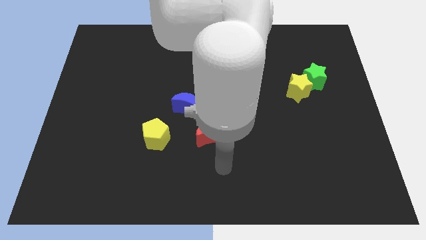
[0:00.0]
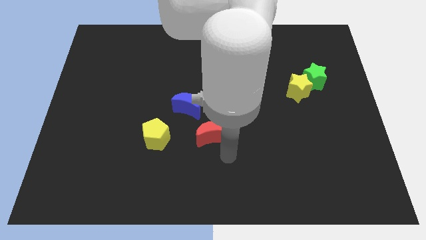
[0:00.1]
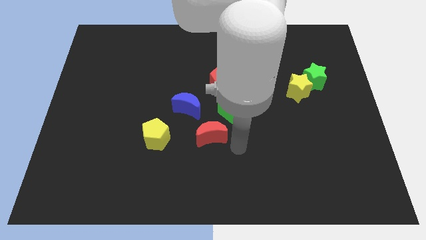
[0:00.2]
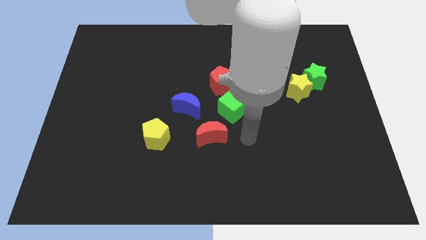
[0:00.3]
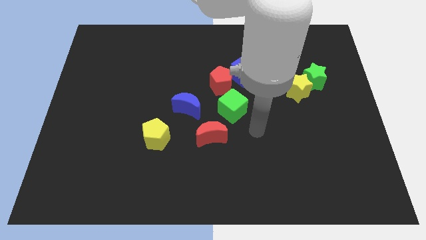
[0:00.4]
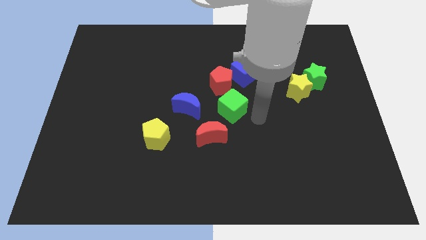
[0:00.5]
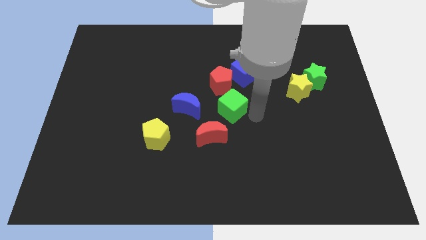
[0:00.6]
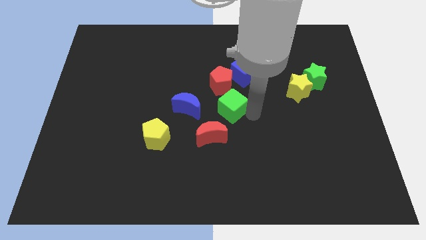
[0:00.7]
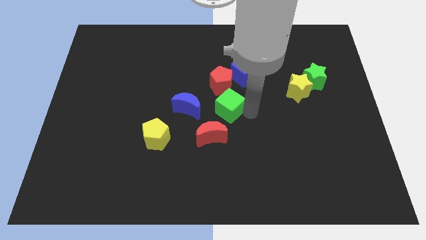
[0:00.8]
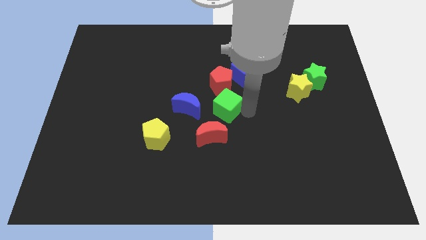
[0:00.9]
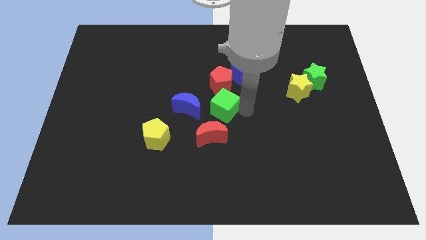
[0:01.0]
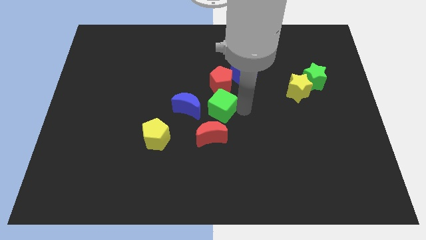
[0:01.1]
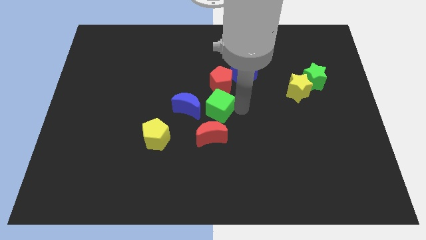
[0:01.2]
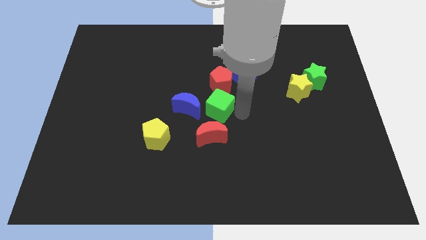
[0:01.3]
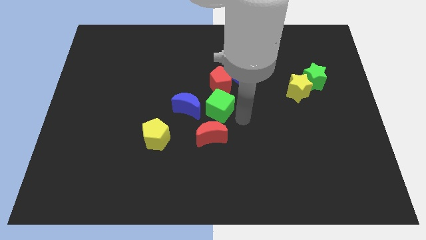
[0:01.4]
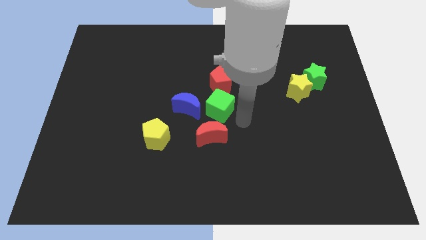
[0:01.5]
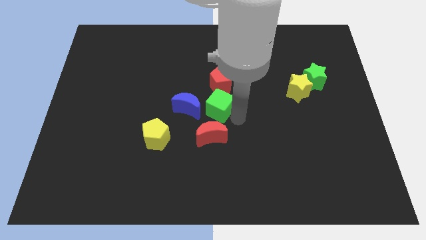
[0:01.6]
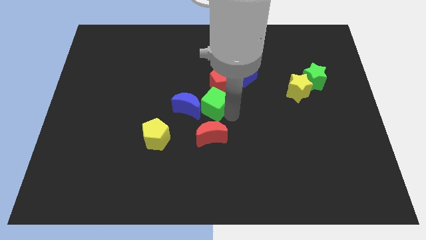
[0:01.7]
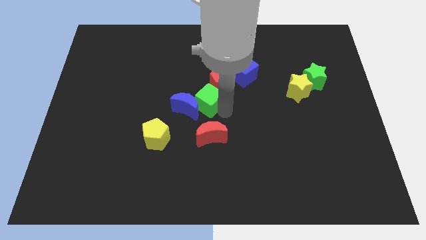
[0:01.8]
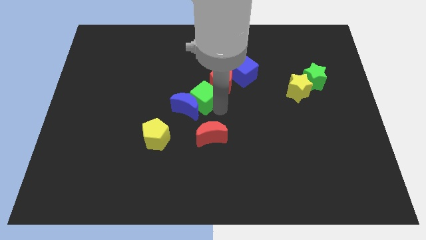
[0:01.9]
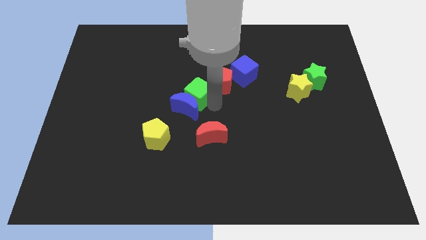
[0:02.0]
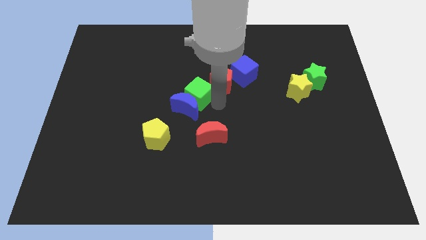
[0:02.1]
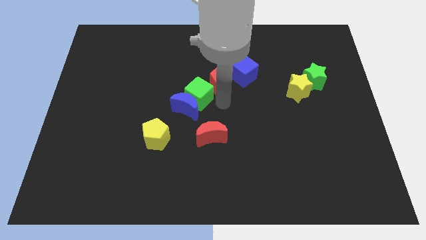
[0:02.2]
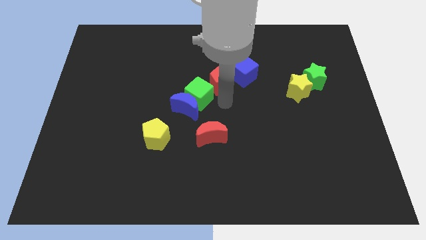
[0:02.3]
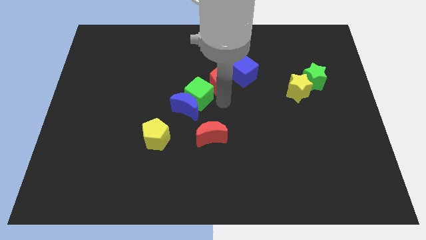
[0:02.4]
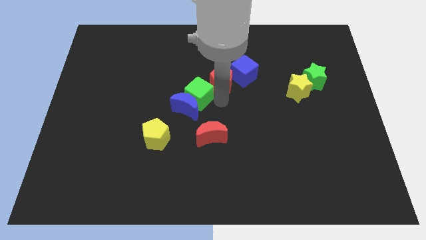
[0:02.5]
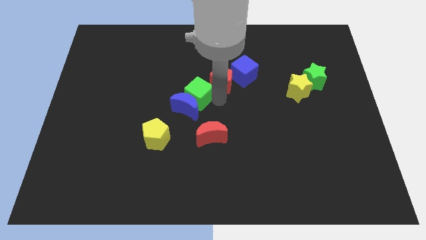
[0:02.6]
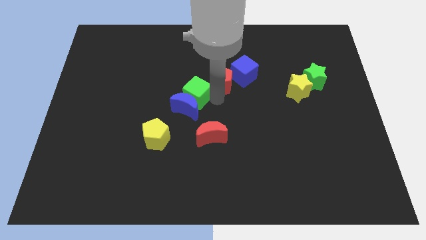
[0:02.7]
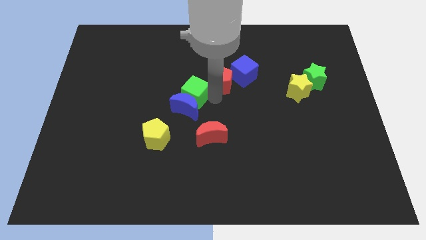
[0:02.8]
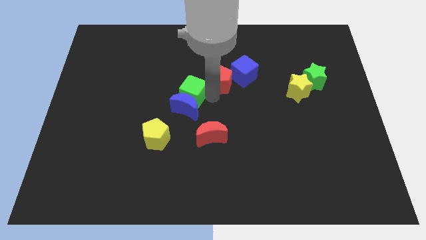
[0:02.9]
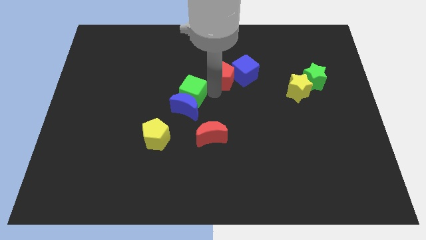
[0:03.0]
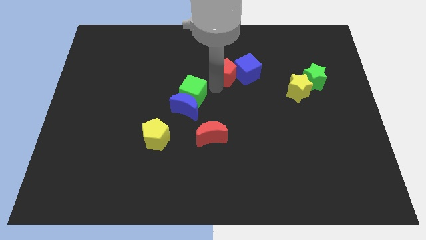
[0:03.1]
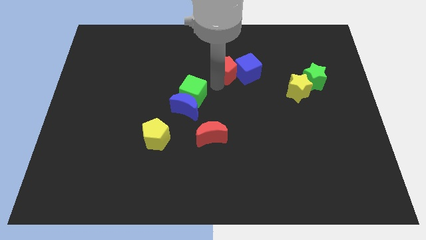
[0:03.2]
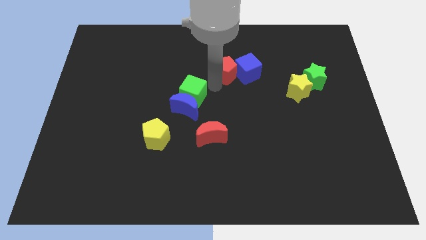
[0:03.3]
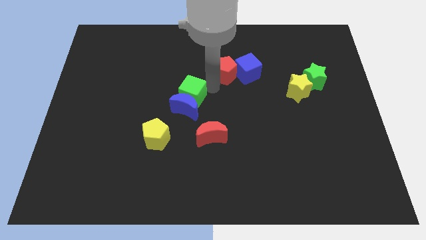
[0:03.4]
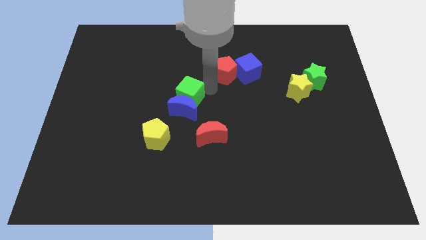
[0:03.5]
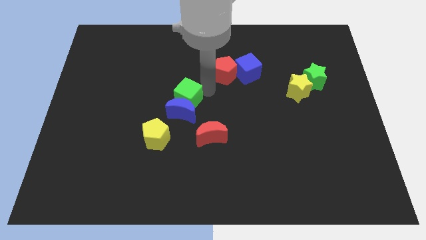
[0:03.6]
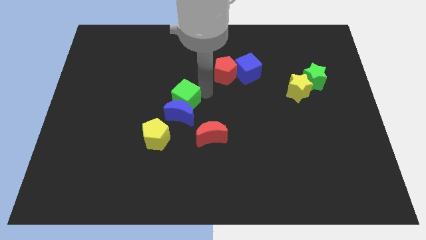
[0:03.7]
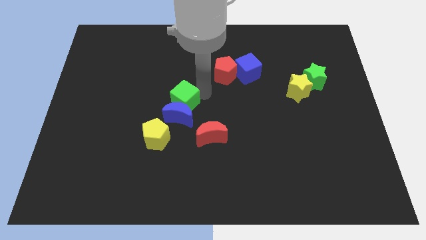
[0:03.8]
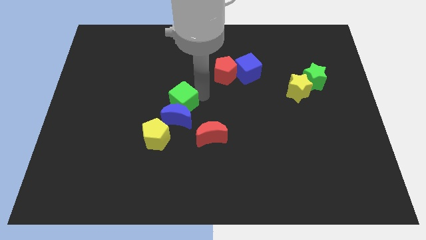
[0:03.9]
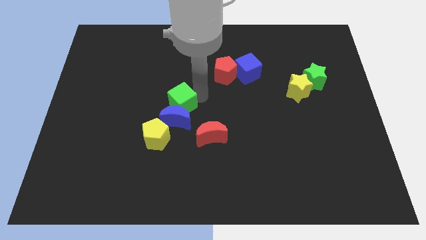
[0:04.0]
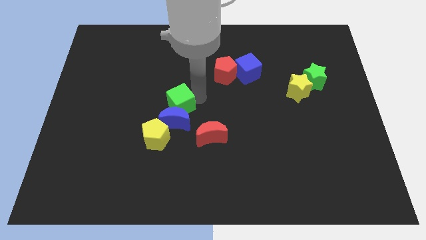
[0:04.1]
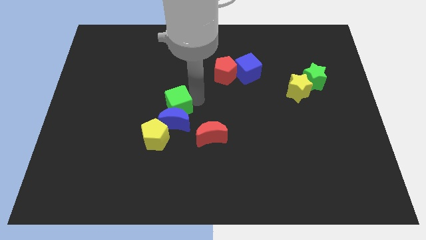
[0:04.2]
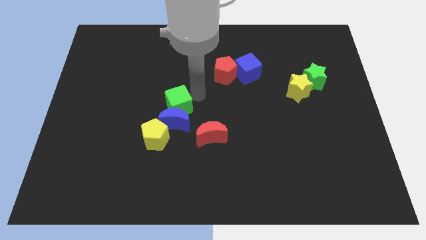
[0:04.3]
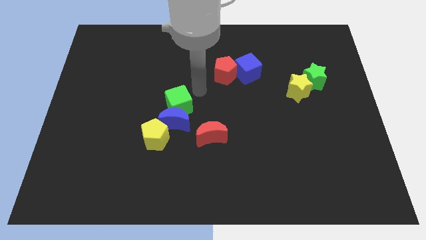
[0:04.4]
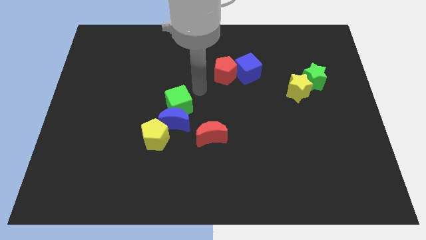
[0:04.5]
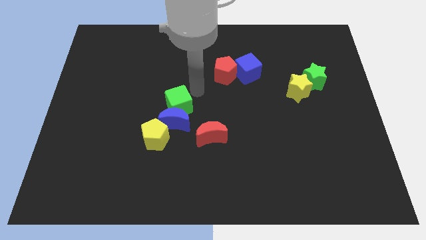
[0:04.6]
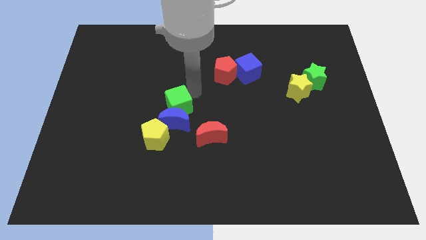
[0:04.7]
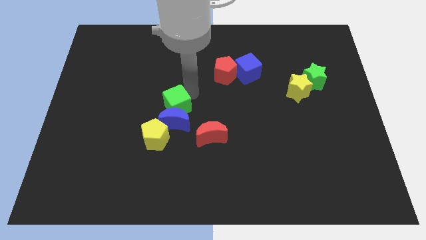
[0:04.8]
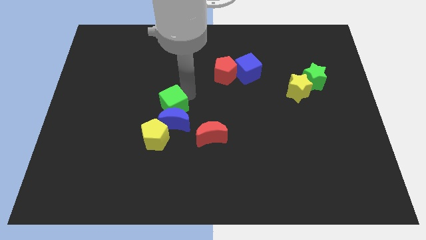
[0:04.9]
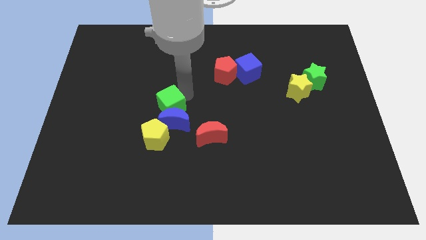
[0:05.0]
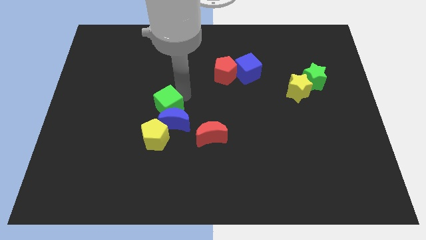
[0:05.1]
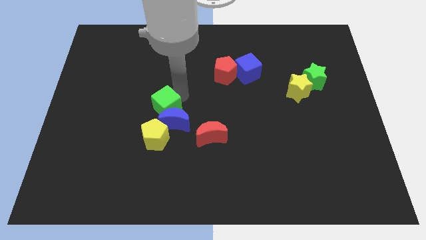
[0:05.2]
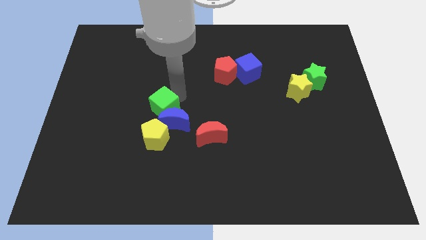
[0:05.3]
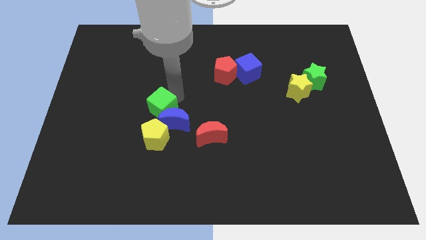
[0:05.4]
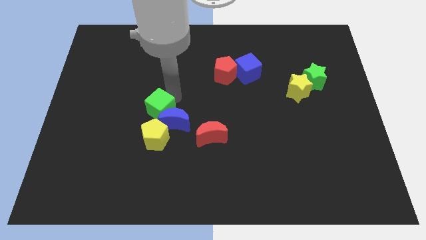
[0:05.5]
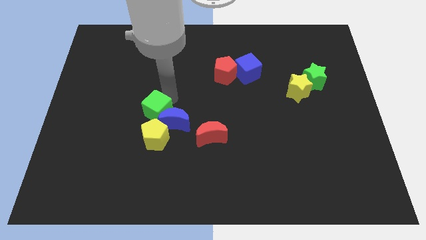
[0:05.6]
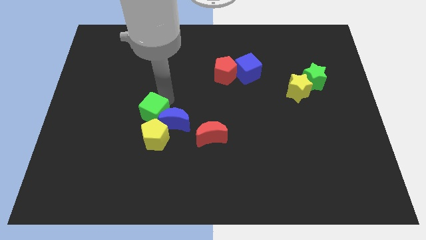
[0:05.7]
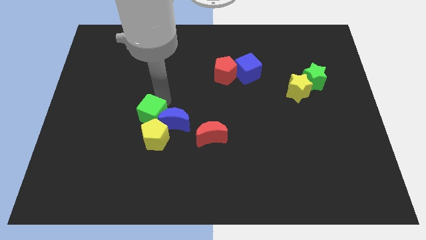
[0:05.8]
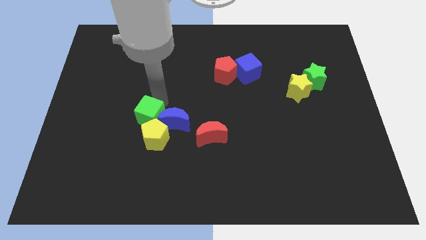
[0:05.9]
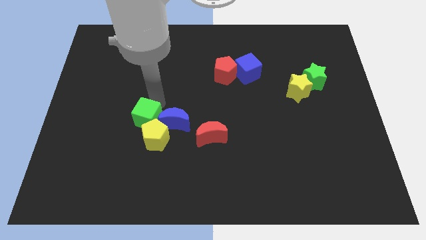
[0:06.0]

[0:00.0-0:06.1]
put the green cube close to the yellow pentagon

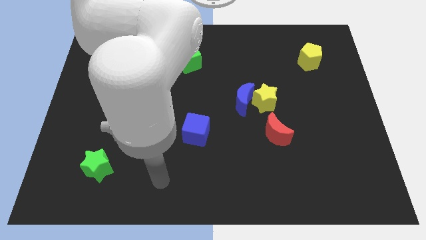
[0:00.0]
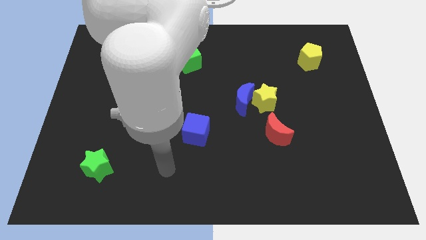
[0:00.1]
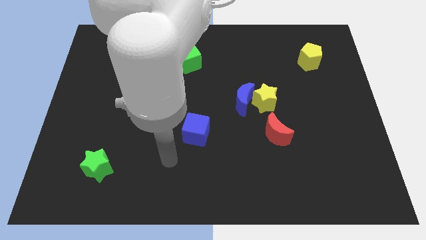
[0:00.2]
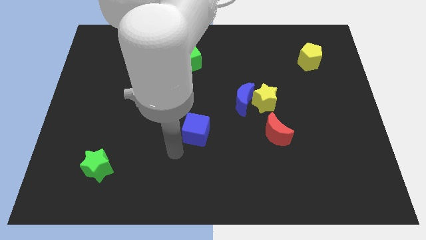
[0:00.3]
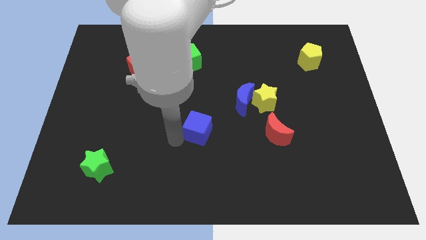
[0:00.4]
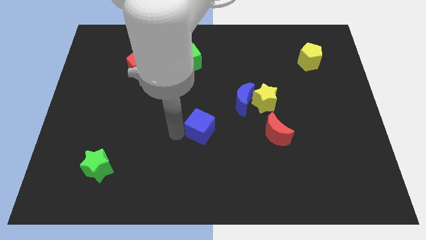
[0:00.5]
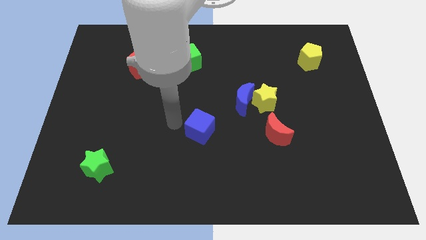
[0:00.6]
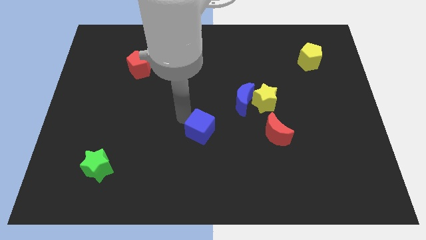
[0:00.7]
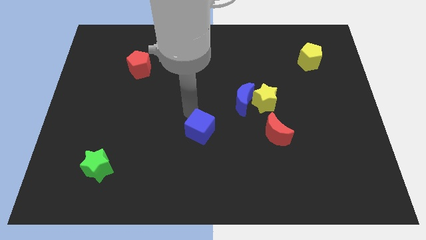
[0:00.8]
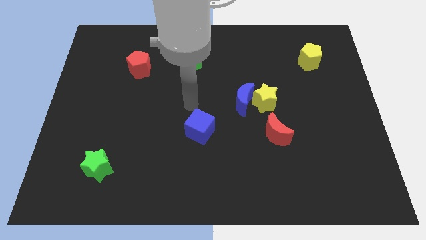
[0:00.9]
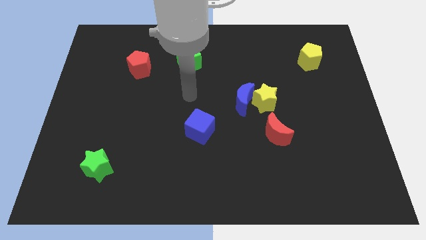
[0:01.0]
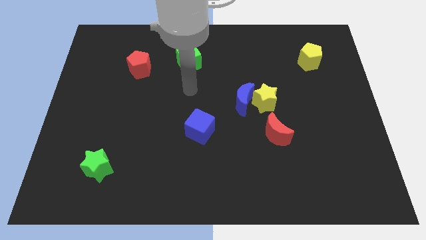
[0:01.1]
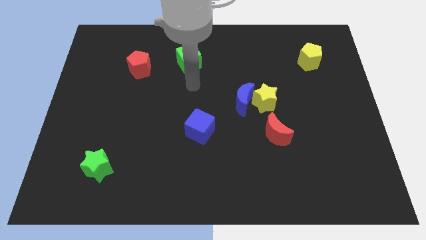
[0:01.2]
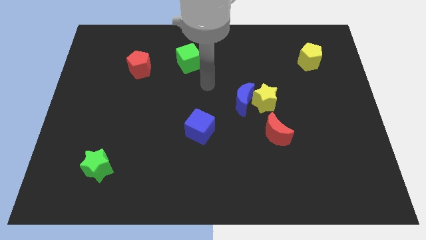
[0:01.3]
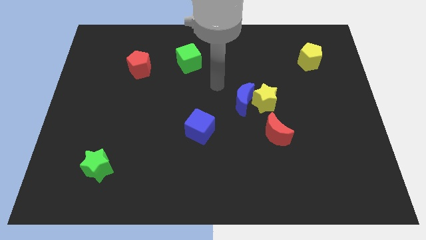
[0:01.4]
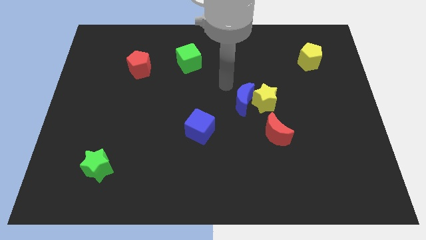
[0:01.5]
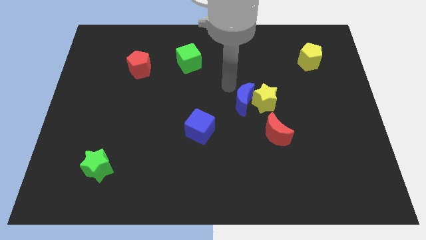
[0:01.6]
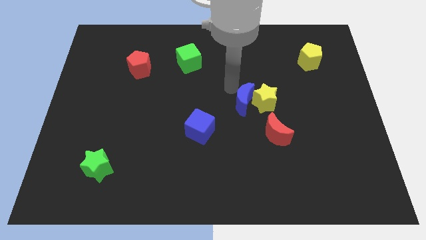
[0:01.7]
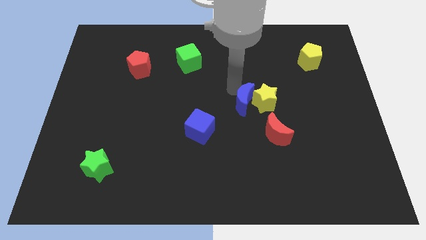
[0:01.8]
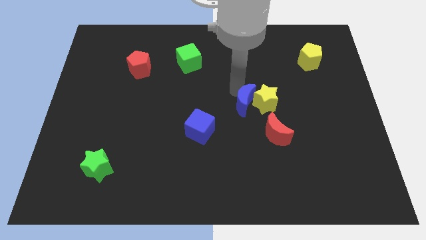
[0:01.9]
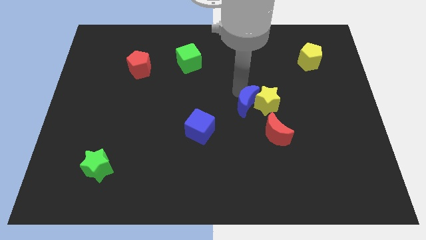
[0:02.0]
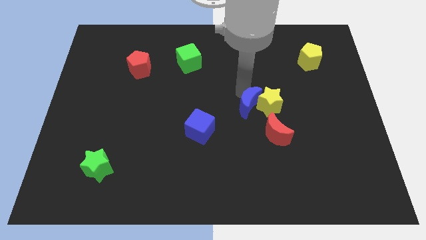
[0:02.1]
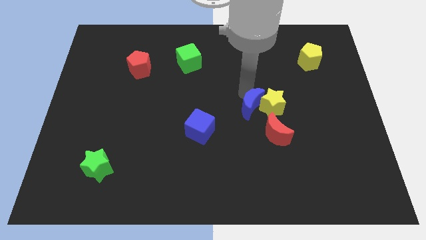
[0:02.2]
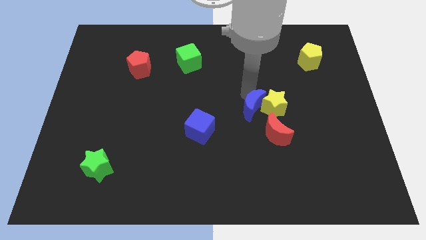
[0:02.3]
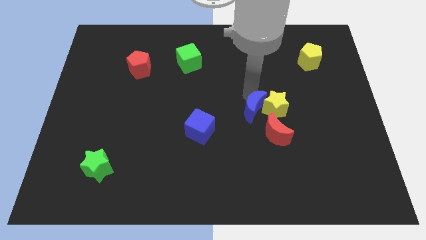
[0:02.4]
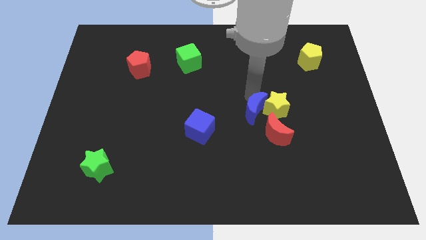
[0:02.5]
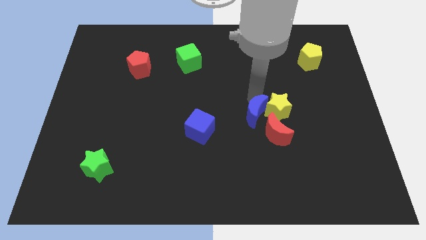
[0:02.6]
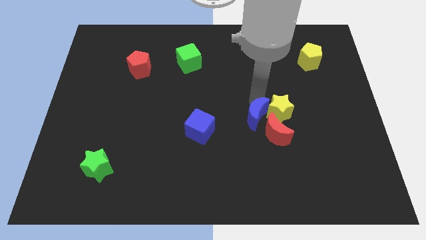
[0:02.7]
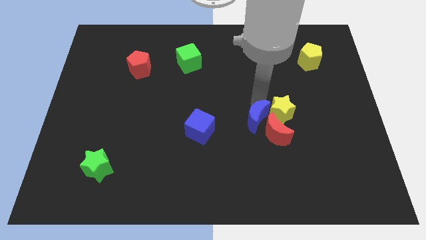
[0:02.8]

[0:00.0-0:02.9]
push the blue moon close to the red moon
